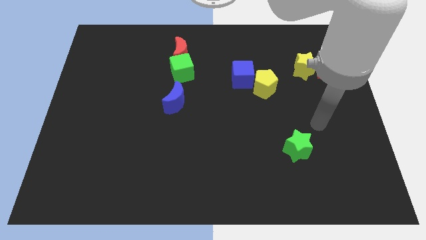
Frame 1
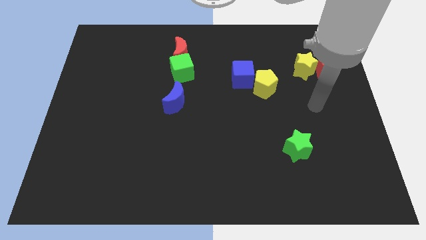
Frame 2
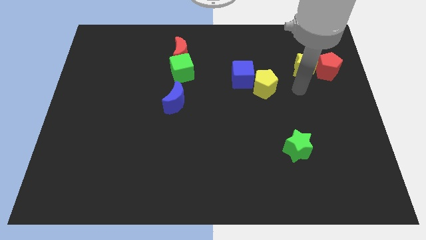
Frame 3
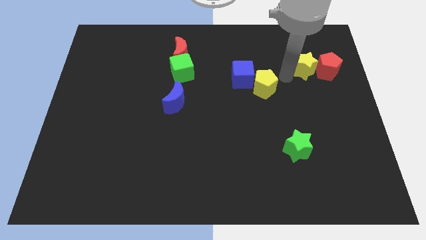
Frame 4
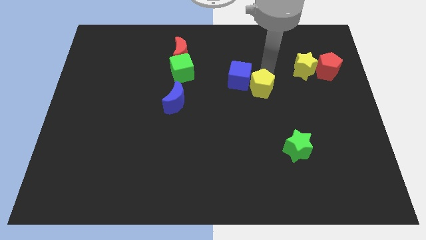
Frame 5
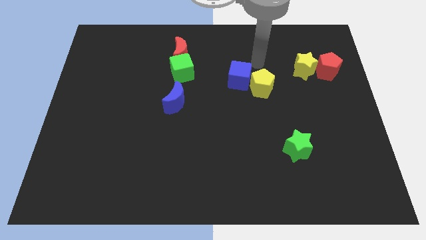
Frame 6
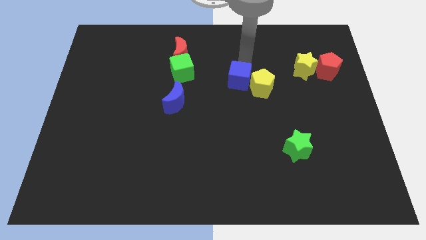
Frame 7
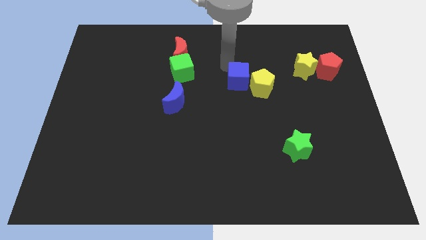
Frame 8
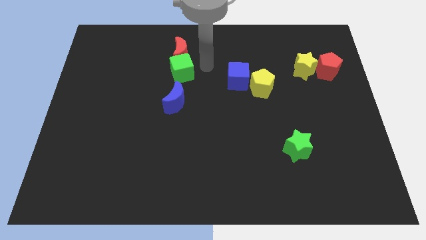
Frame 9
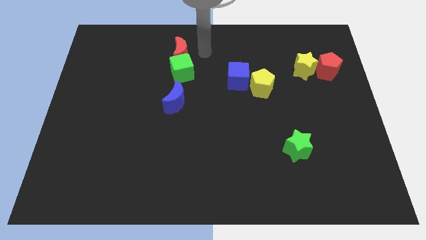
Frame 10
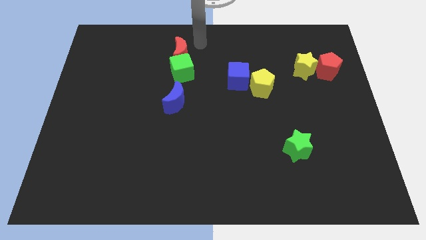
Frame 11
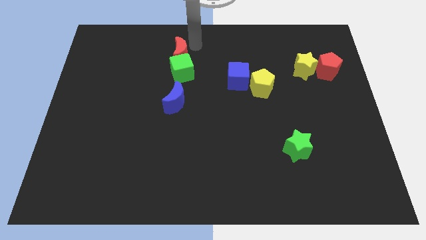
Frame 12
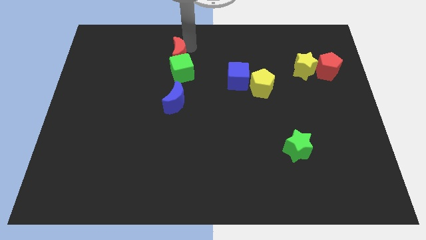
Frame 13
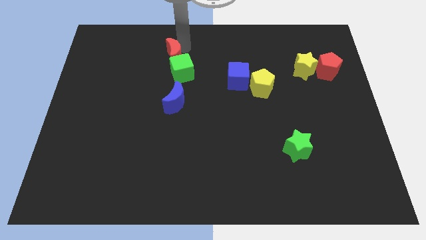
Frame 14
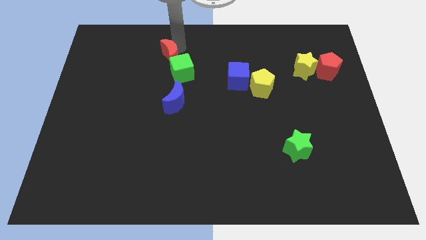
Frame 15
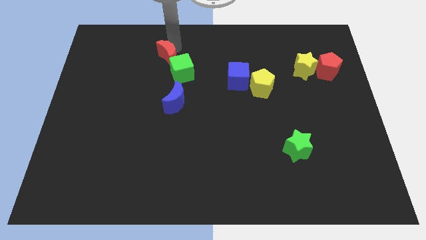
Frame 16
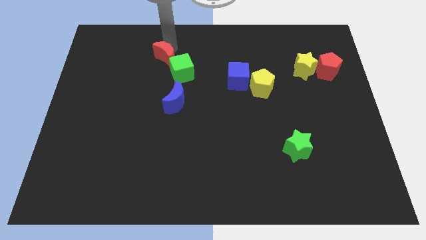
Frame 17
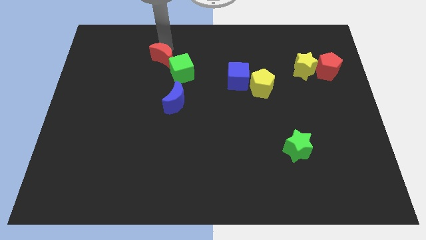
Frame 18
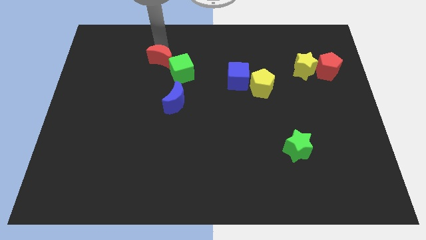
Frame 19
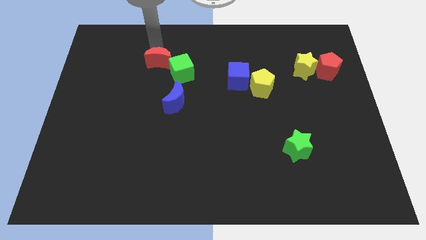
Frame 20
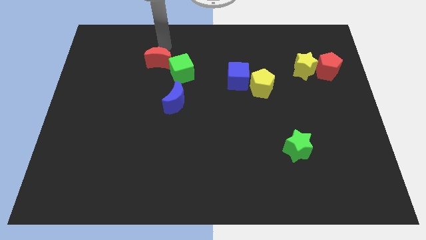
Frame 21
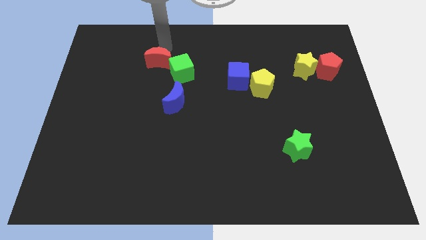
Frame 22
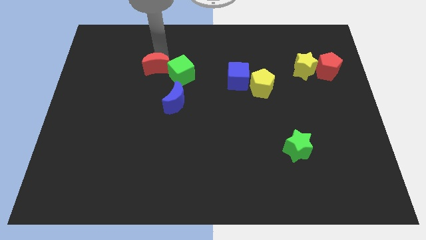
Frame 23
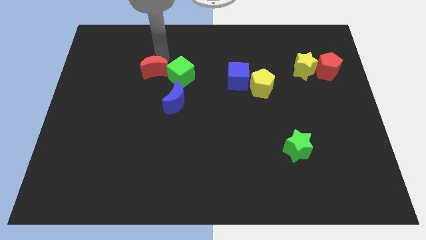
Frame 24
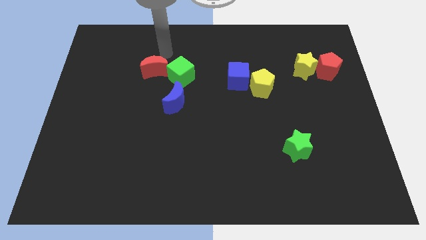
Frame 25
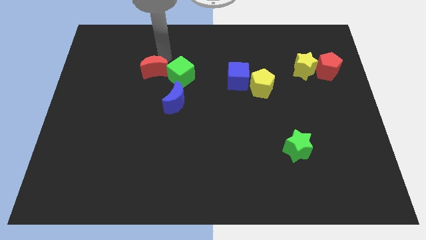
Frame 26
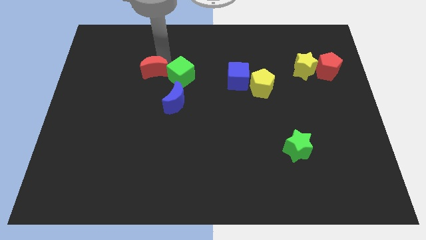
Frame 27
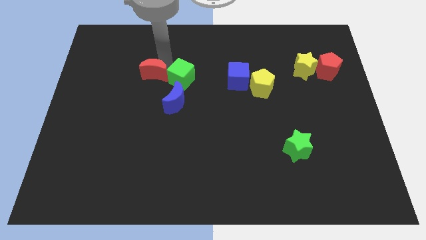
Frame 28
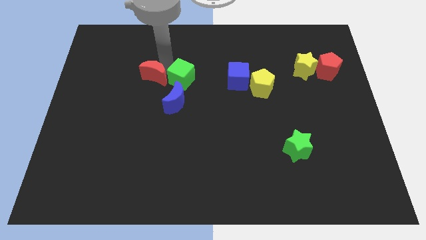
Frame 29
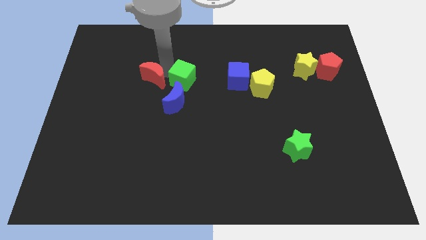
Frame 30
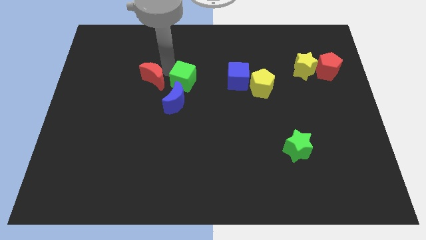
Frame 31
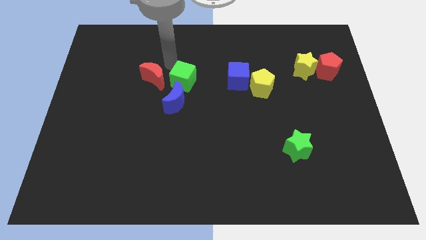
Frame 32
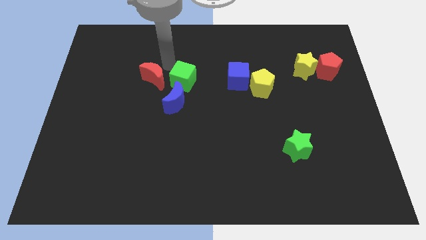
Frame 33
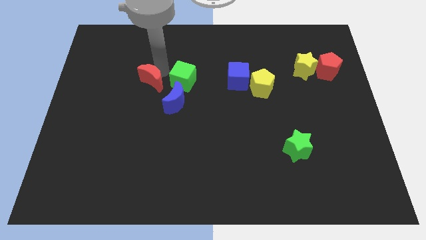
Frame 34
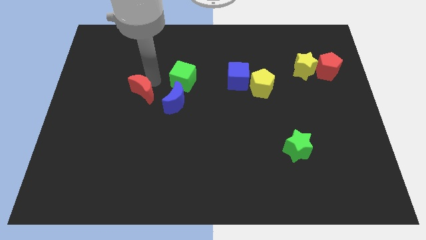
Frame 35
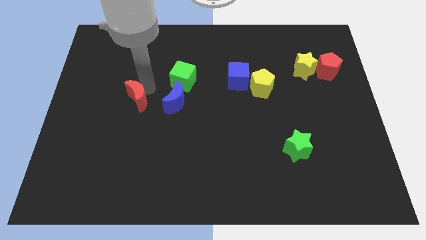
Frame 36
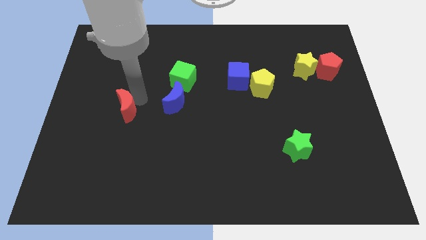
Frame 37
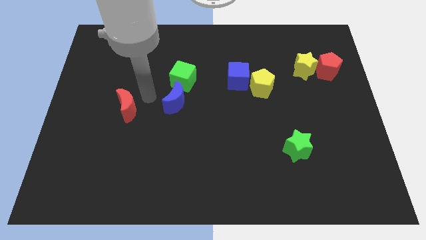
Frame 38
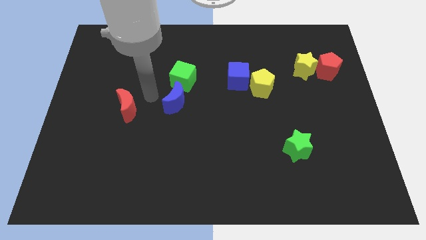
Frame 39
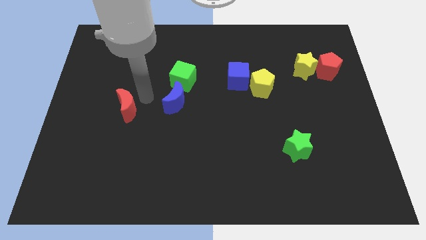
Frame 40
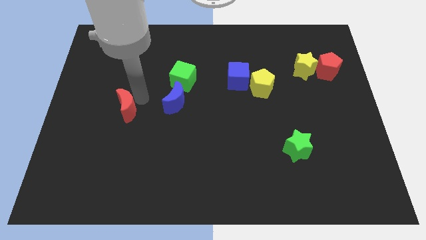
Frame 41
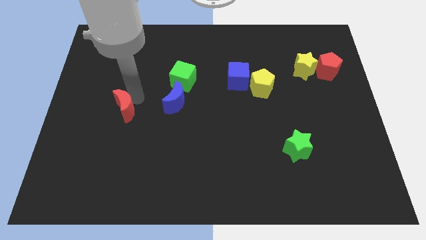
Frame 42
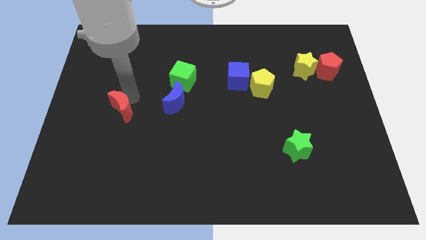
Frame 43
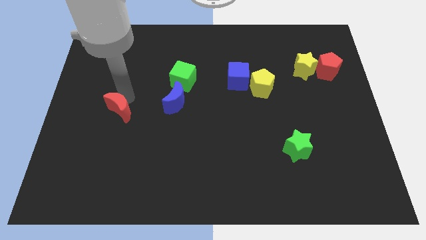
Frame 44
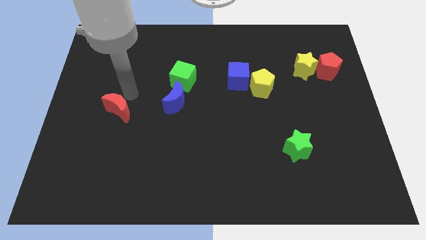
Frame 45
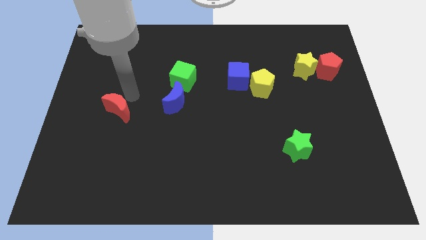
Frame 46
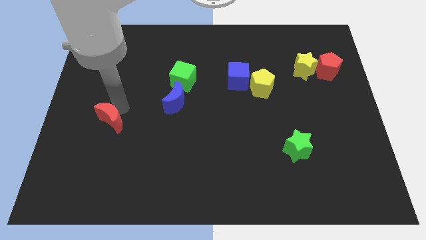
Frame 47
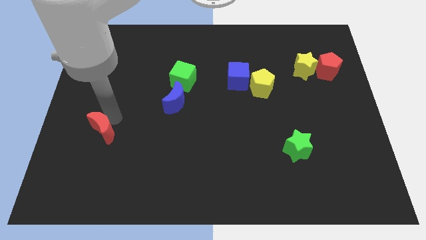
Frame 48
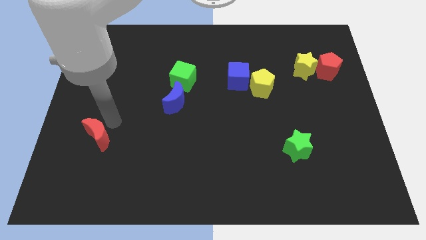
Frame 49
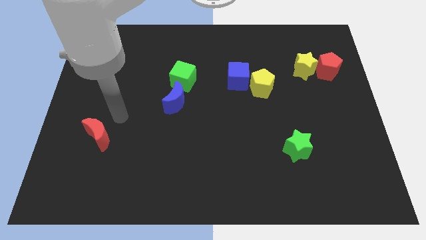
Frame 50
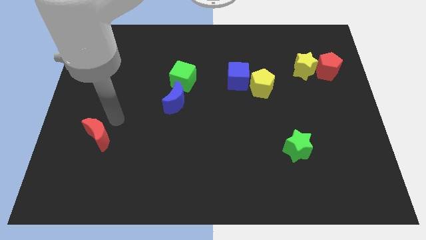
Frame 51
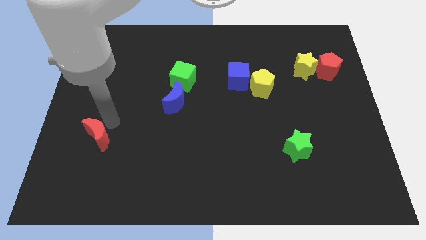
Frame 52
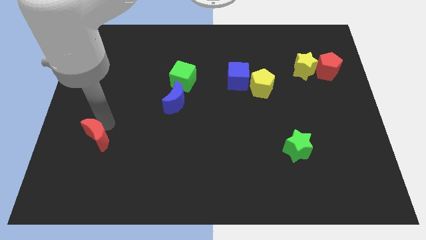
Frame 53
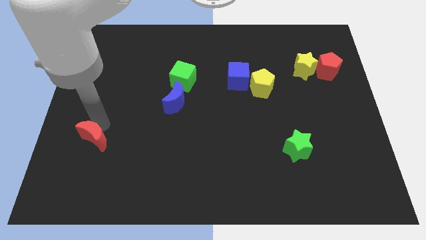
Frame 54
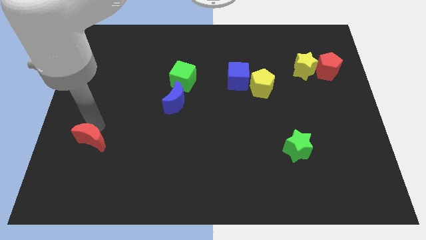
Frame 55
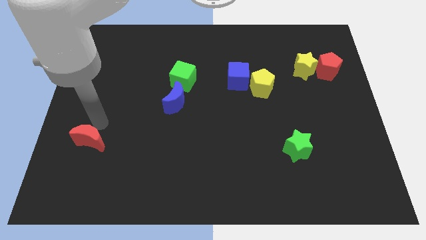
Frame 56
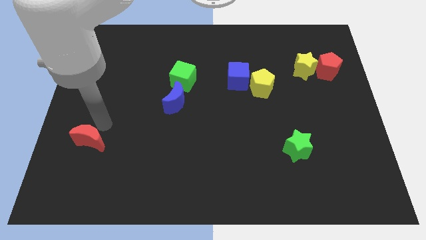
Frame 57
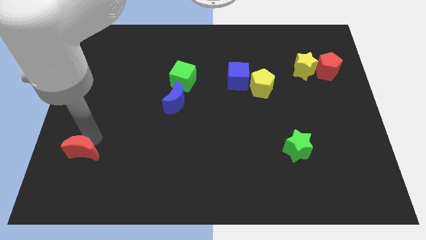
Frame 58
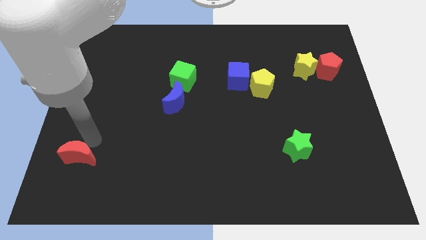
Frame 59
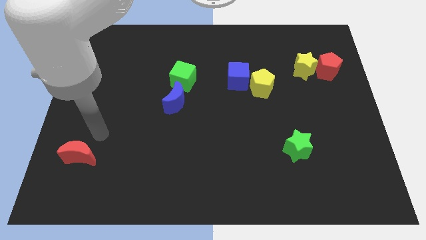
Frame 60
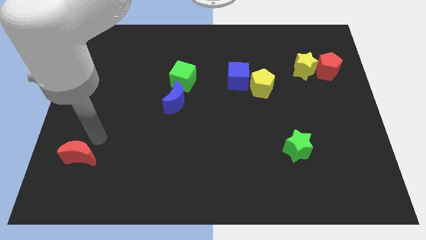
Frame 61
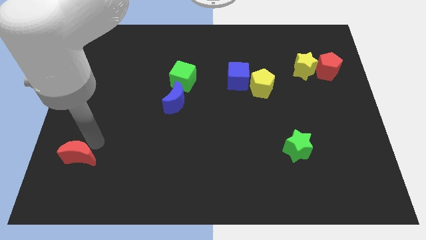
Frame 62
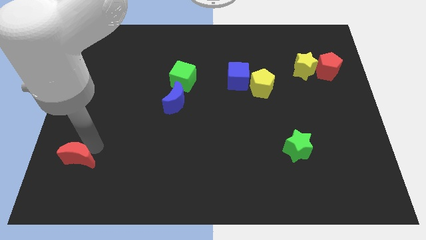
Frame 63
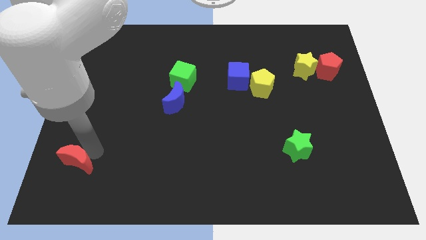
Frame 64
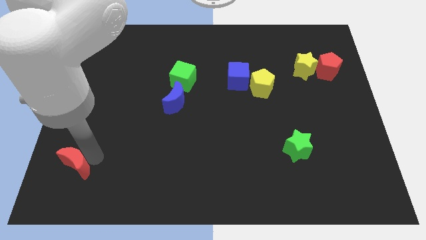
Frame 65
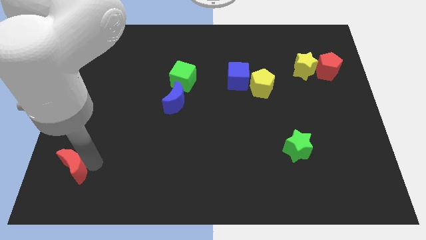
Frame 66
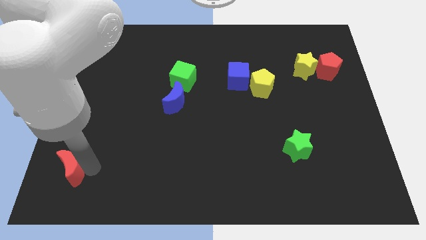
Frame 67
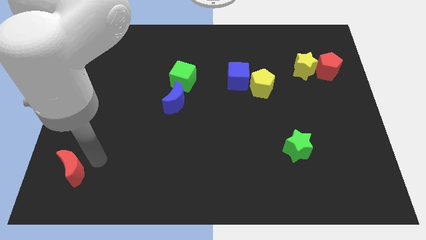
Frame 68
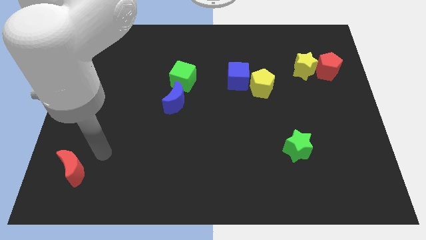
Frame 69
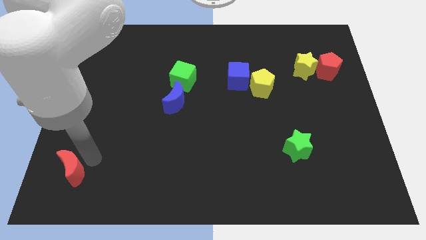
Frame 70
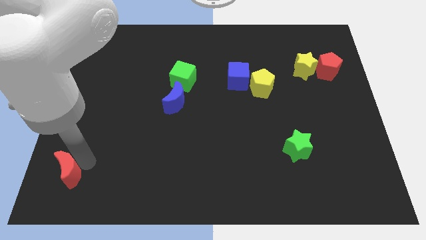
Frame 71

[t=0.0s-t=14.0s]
move the red moon to the bottom left
